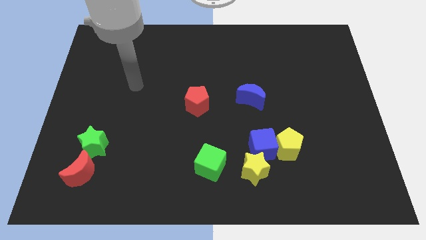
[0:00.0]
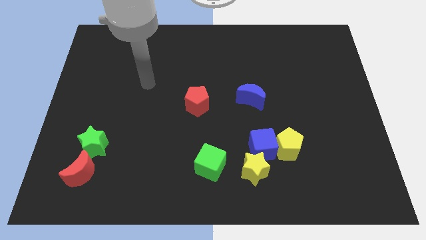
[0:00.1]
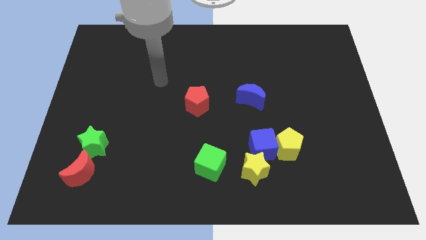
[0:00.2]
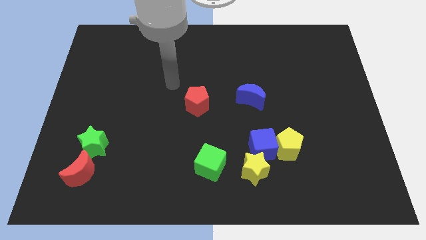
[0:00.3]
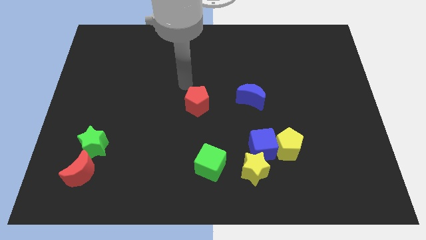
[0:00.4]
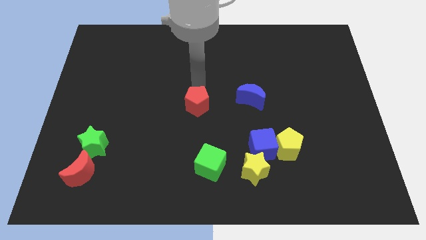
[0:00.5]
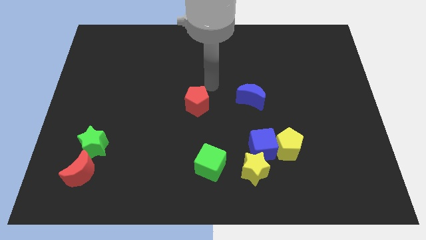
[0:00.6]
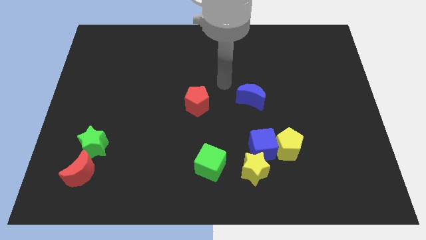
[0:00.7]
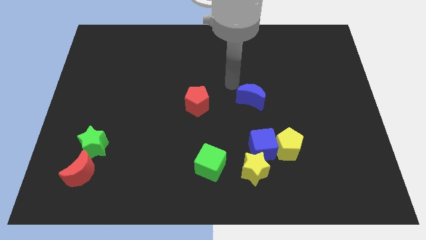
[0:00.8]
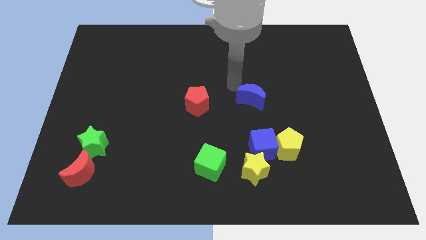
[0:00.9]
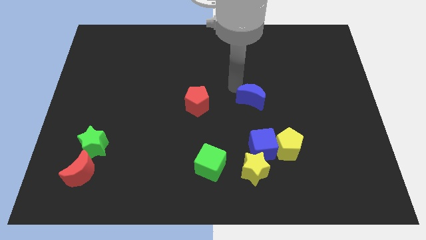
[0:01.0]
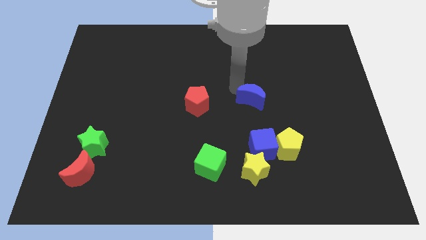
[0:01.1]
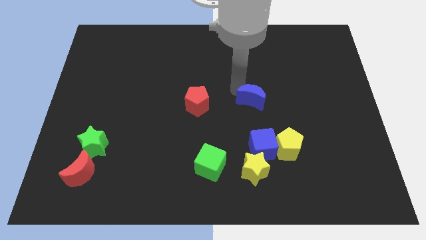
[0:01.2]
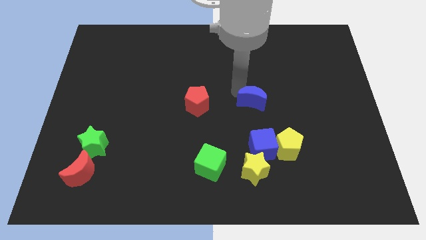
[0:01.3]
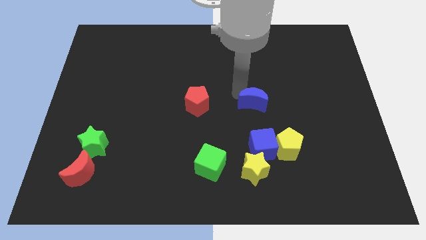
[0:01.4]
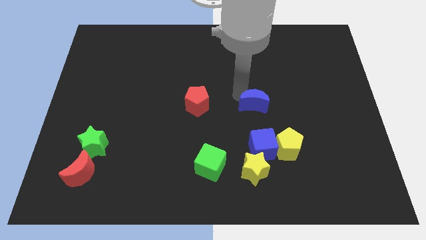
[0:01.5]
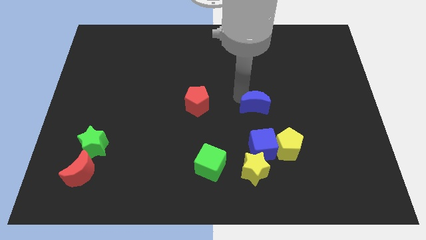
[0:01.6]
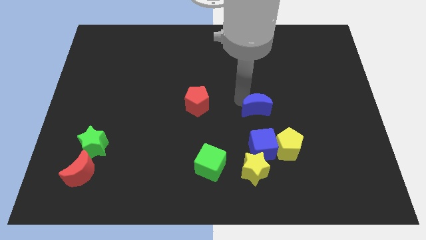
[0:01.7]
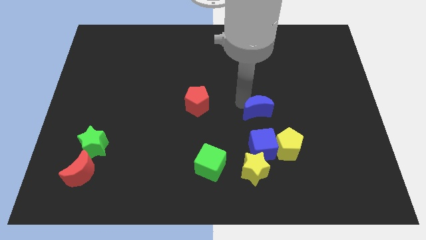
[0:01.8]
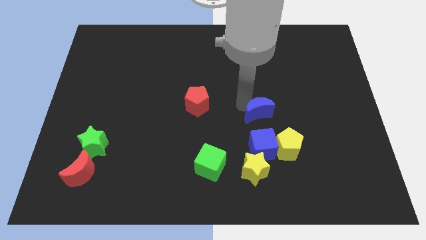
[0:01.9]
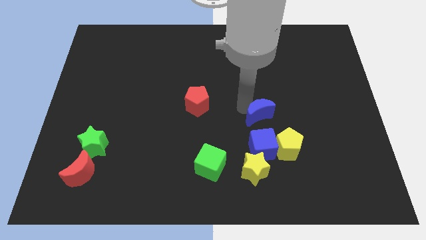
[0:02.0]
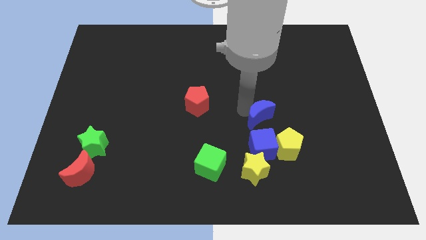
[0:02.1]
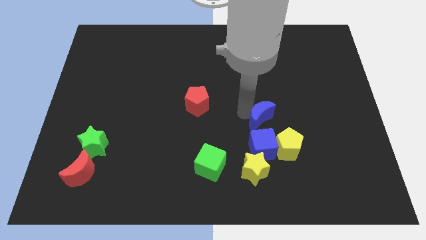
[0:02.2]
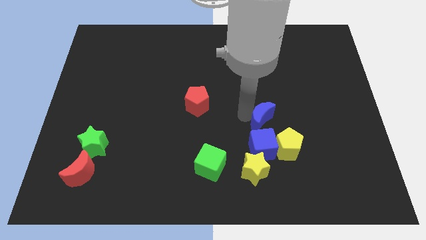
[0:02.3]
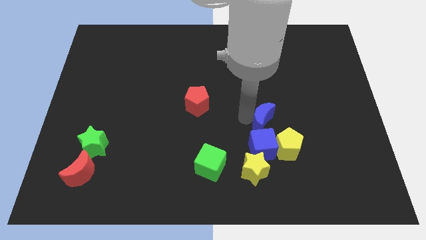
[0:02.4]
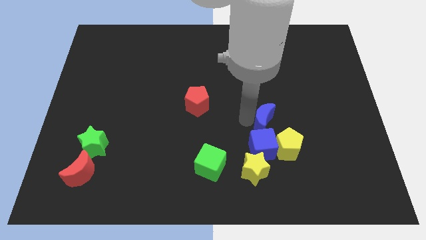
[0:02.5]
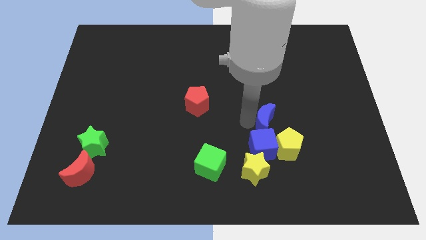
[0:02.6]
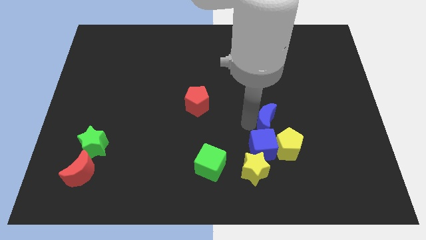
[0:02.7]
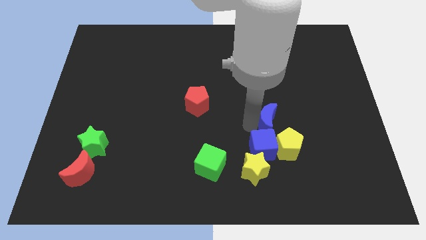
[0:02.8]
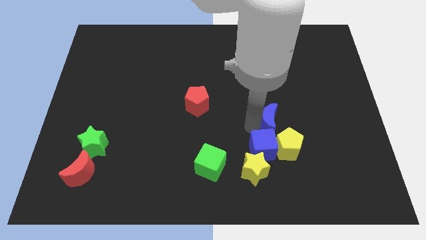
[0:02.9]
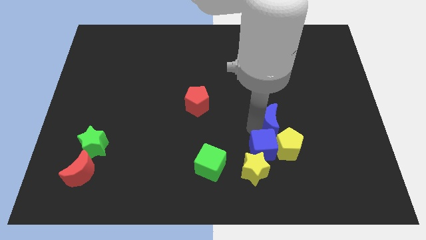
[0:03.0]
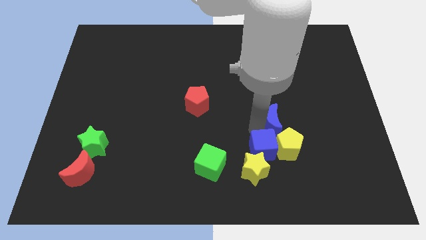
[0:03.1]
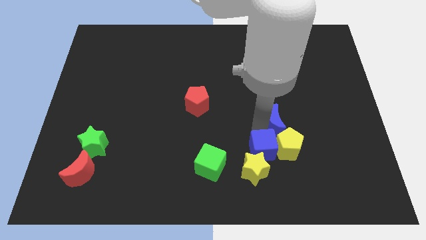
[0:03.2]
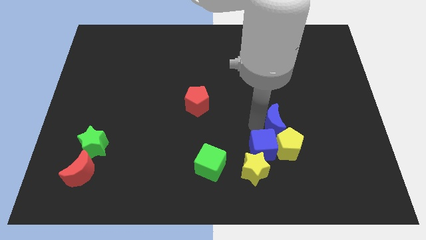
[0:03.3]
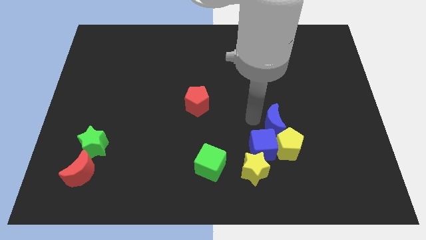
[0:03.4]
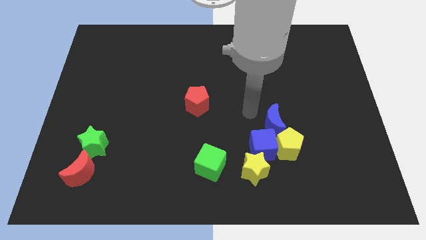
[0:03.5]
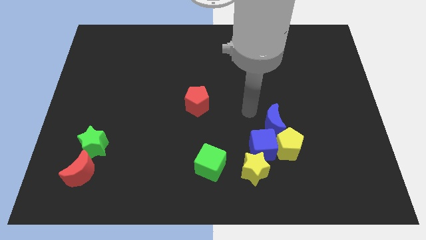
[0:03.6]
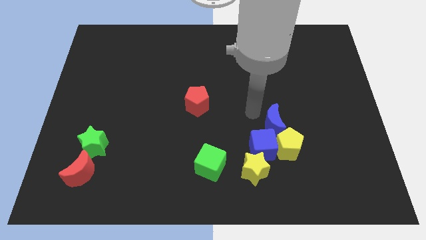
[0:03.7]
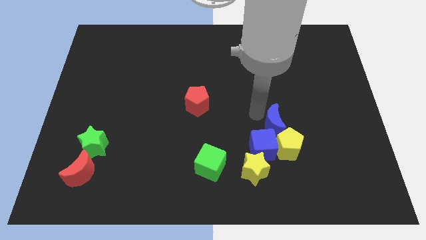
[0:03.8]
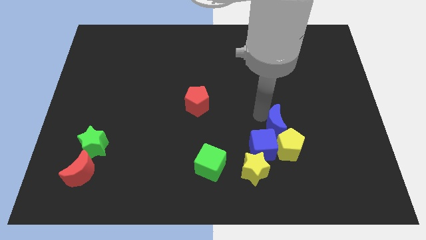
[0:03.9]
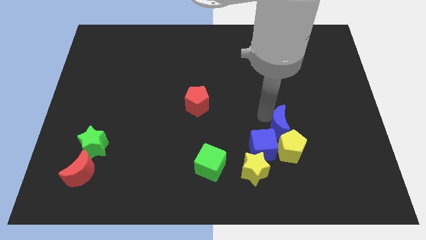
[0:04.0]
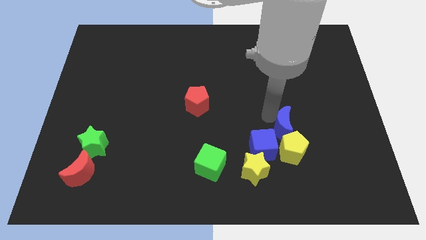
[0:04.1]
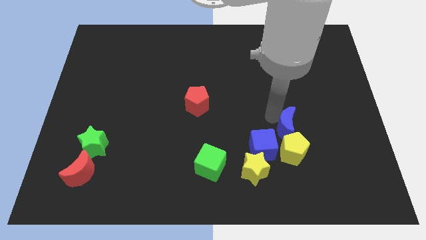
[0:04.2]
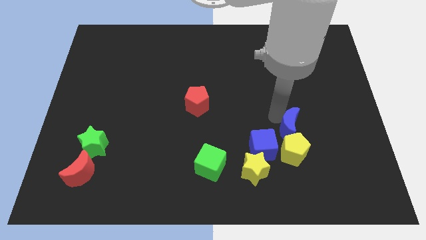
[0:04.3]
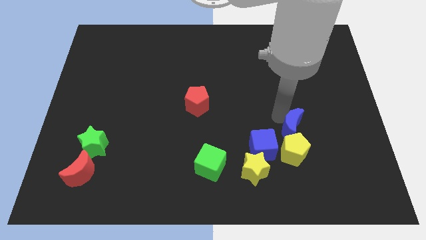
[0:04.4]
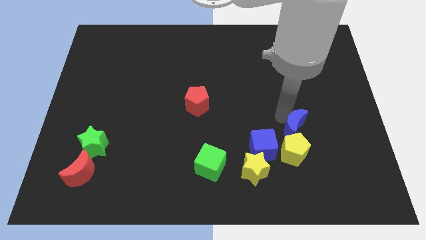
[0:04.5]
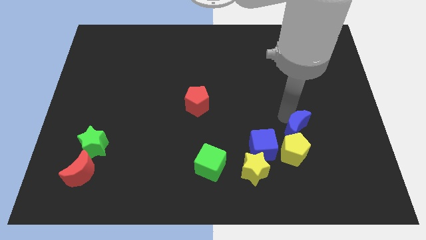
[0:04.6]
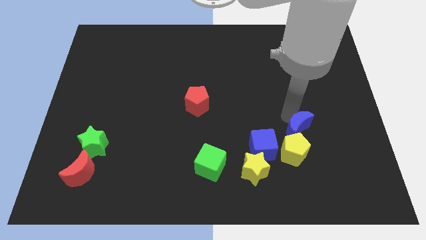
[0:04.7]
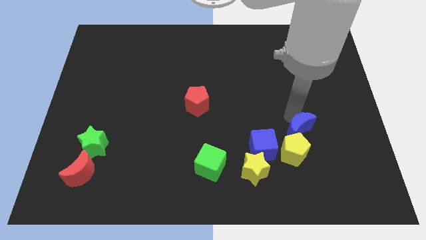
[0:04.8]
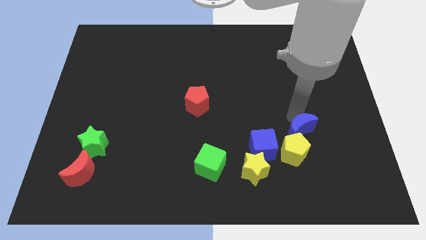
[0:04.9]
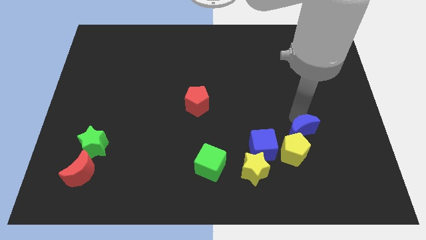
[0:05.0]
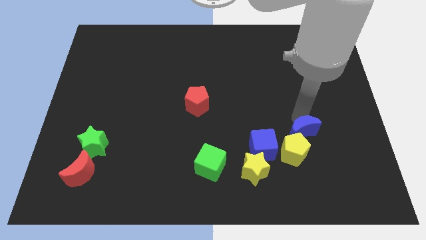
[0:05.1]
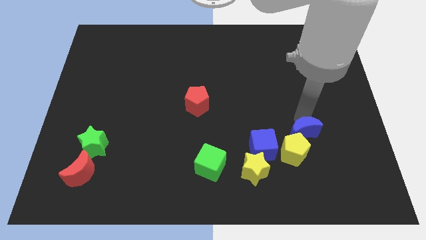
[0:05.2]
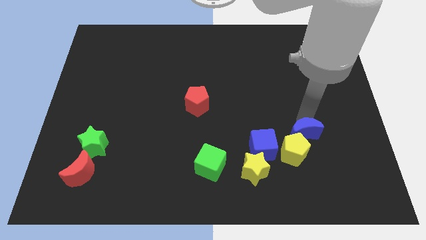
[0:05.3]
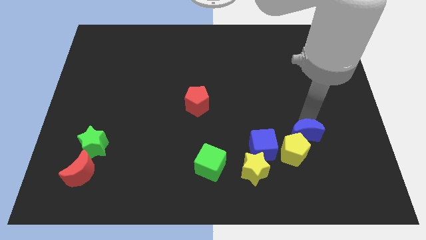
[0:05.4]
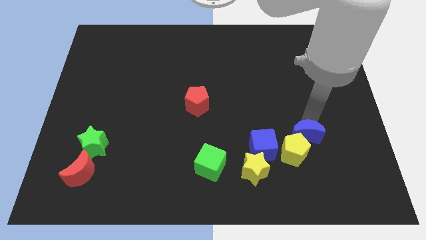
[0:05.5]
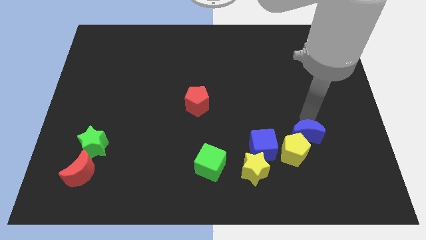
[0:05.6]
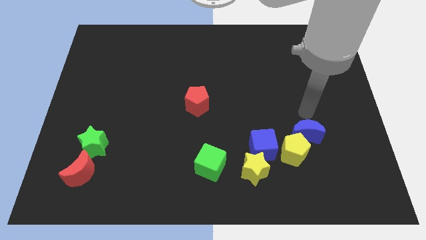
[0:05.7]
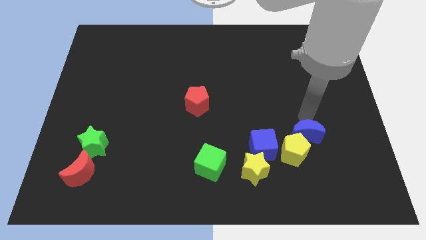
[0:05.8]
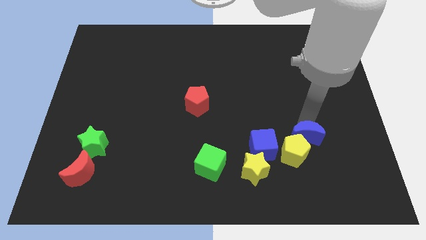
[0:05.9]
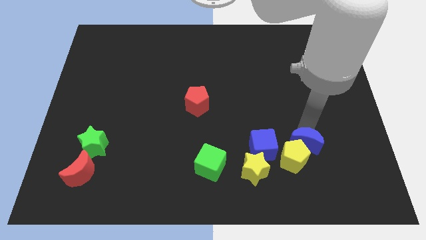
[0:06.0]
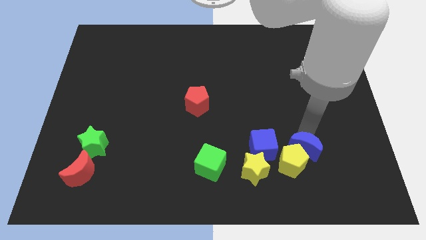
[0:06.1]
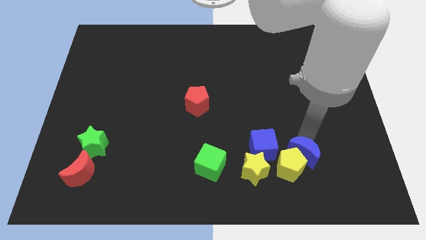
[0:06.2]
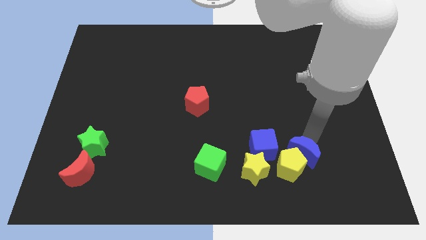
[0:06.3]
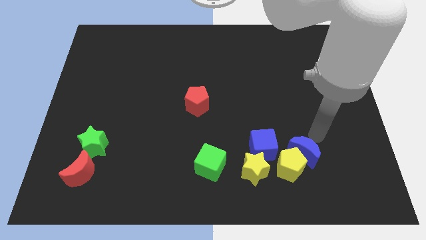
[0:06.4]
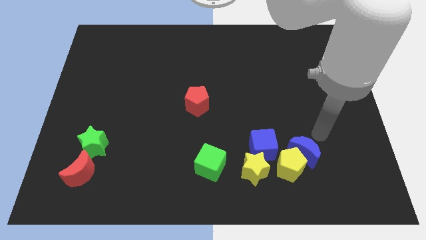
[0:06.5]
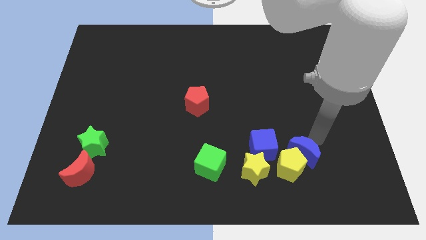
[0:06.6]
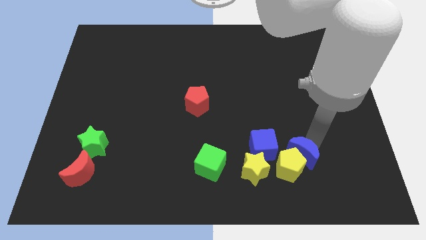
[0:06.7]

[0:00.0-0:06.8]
push the blue moon to the bottom right side of the blue cube
